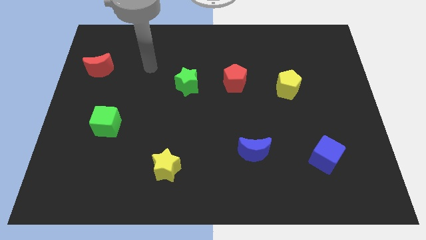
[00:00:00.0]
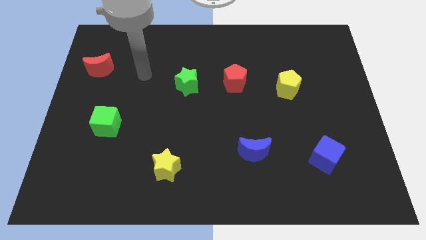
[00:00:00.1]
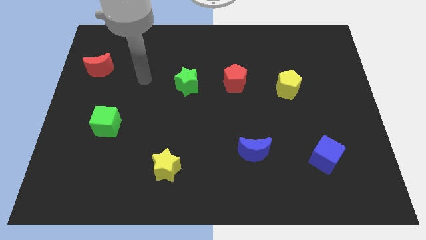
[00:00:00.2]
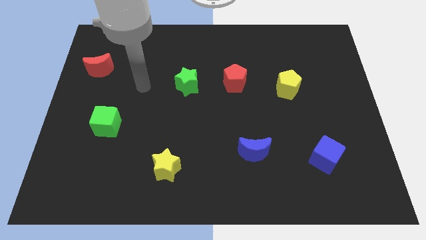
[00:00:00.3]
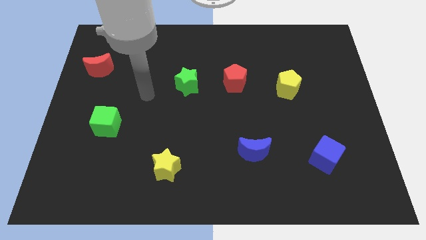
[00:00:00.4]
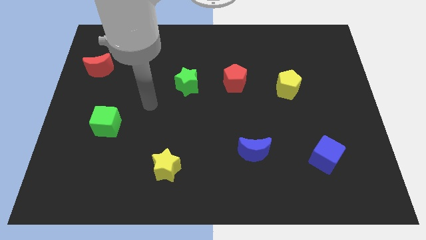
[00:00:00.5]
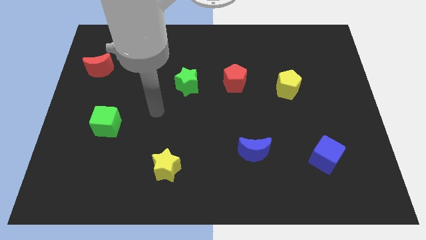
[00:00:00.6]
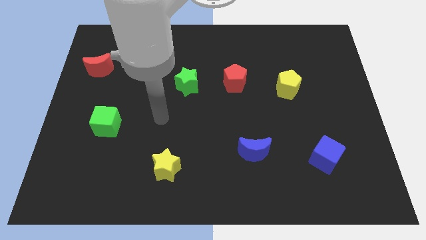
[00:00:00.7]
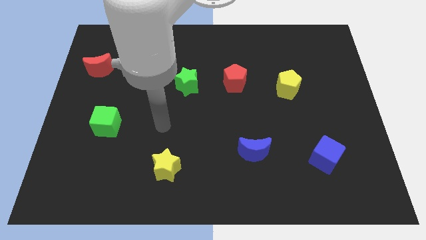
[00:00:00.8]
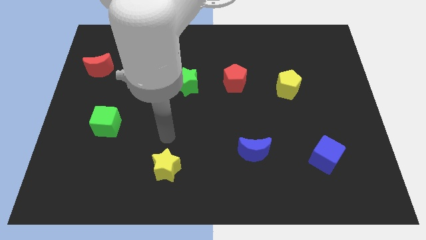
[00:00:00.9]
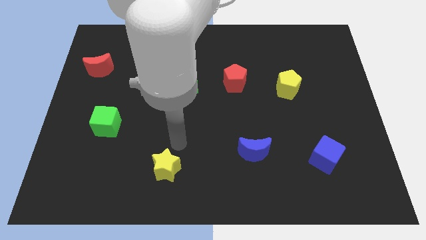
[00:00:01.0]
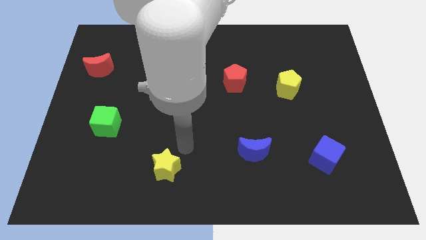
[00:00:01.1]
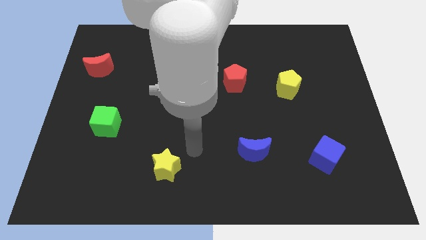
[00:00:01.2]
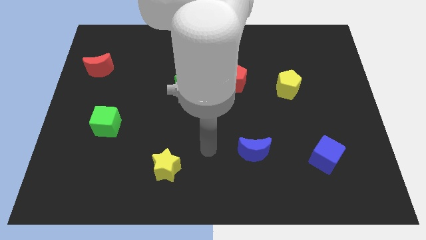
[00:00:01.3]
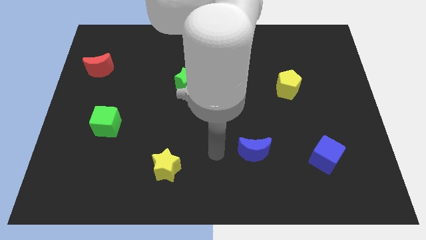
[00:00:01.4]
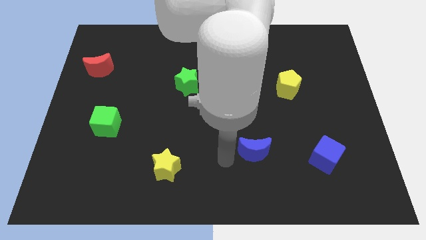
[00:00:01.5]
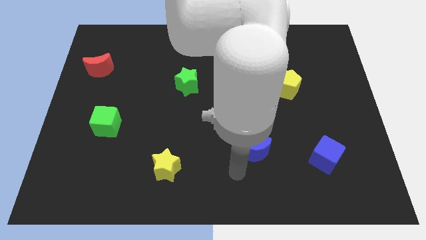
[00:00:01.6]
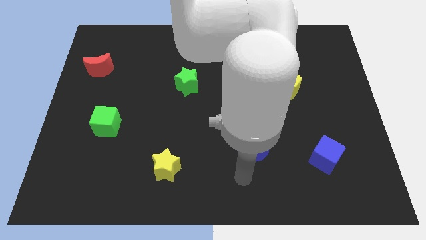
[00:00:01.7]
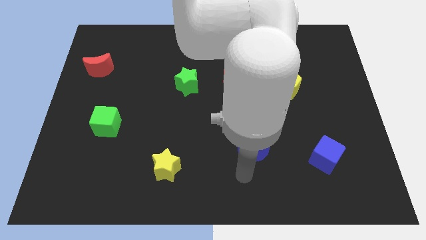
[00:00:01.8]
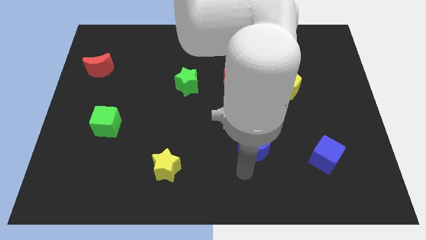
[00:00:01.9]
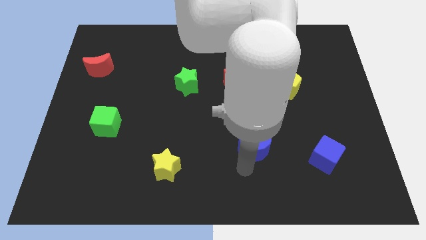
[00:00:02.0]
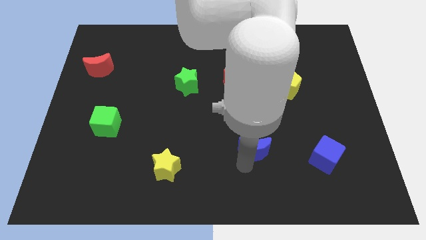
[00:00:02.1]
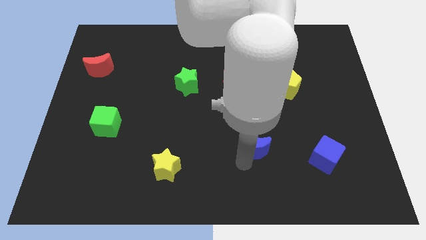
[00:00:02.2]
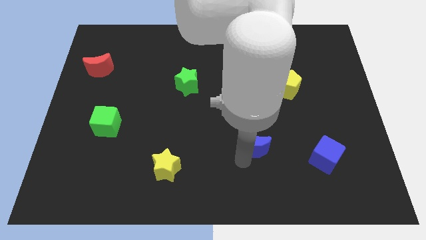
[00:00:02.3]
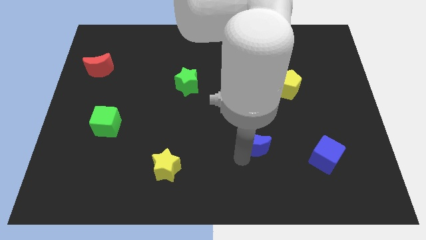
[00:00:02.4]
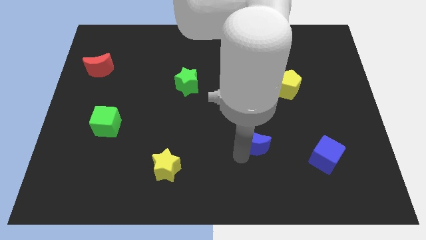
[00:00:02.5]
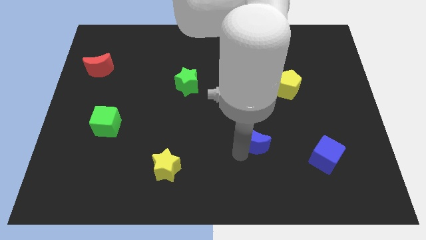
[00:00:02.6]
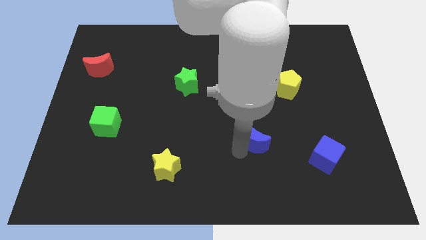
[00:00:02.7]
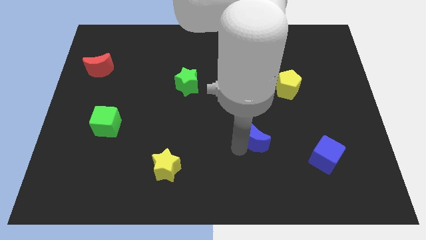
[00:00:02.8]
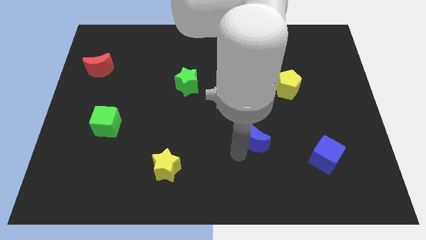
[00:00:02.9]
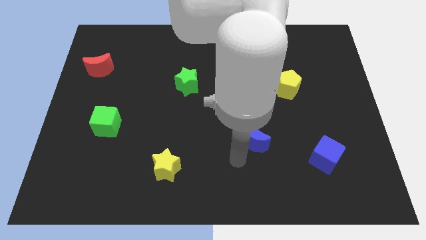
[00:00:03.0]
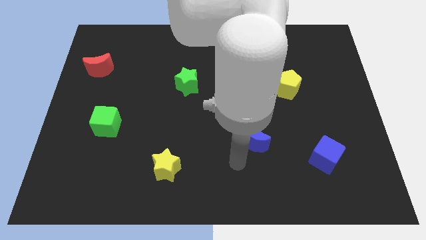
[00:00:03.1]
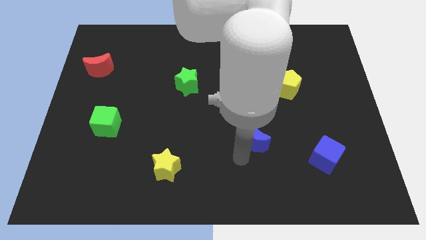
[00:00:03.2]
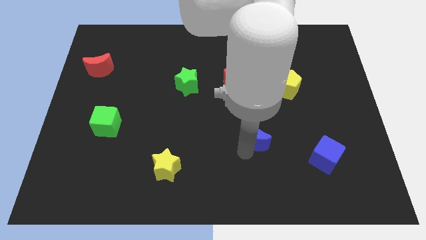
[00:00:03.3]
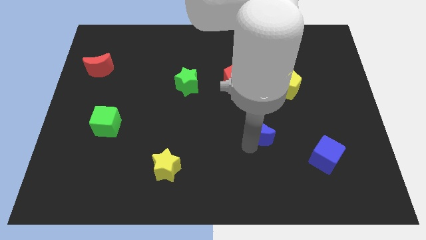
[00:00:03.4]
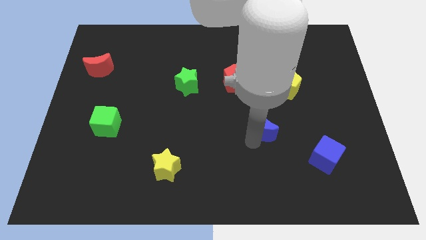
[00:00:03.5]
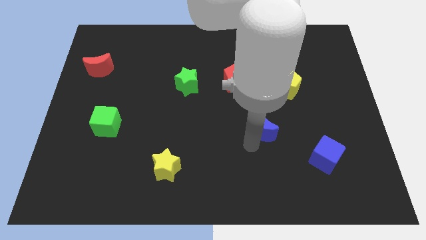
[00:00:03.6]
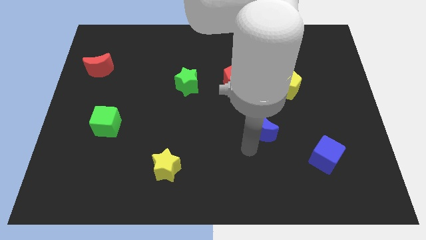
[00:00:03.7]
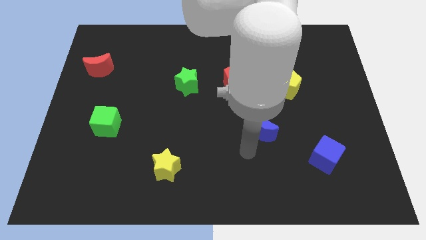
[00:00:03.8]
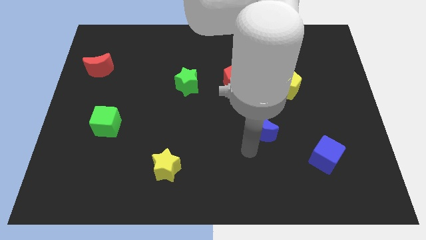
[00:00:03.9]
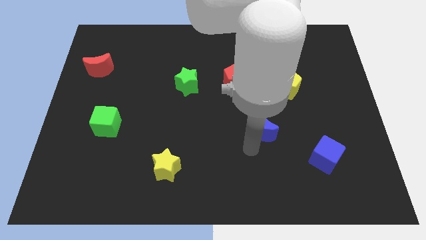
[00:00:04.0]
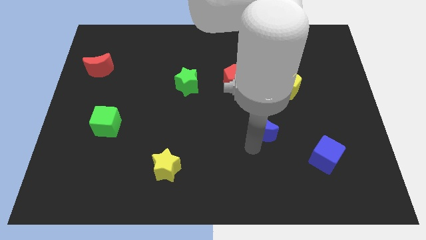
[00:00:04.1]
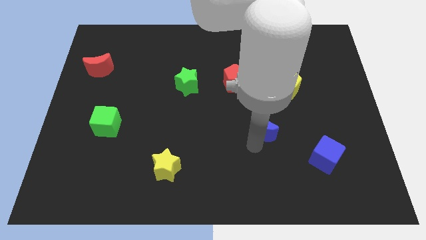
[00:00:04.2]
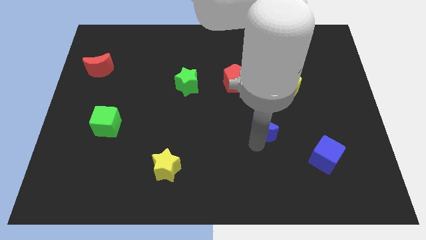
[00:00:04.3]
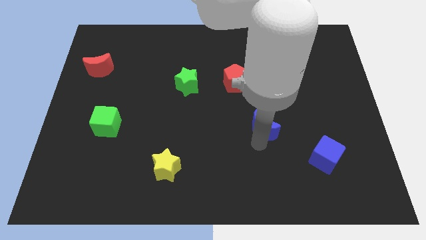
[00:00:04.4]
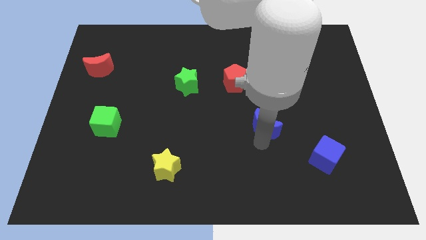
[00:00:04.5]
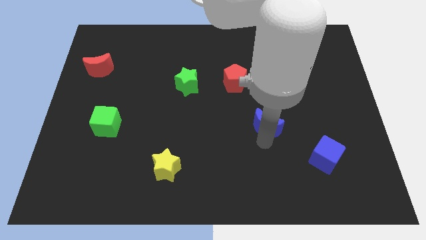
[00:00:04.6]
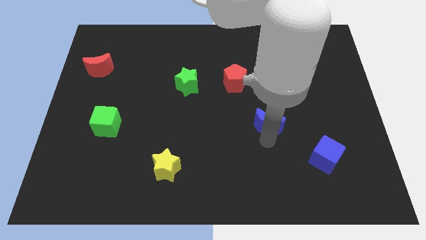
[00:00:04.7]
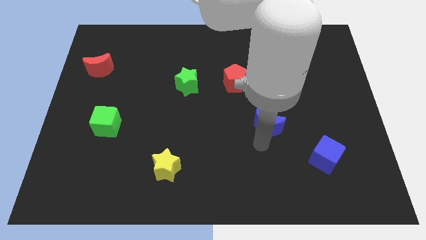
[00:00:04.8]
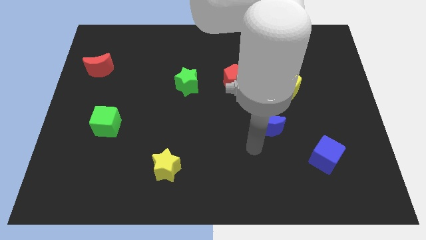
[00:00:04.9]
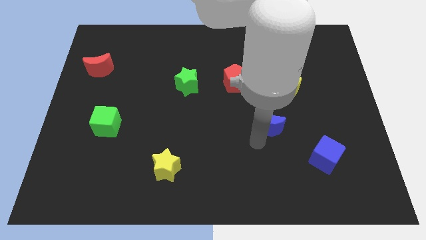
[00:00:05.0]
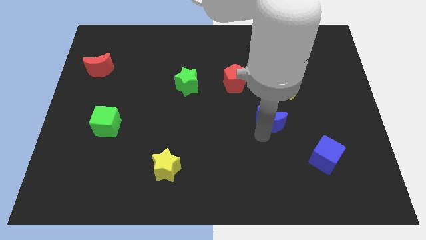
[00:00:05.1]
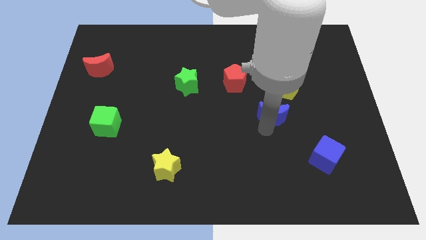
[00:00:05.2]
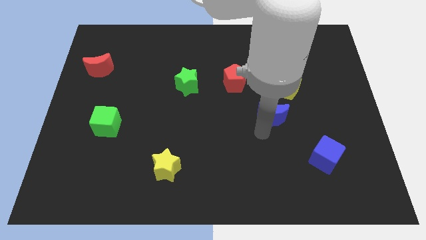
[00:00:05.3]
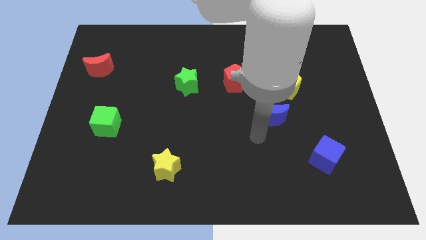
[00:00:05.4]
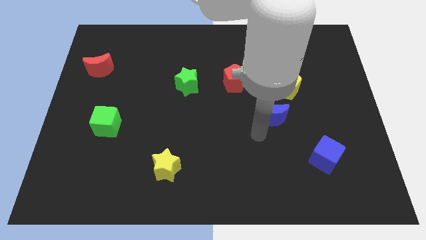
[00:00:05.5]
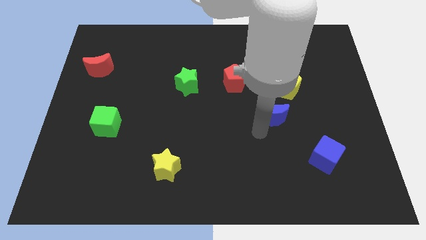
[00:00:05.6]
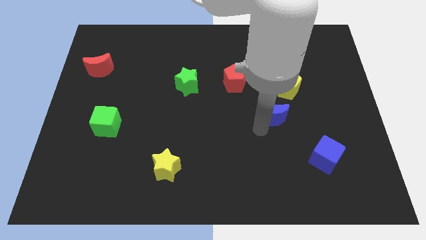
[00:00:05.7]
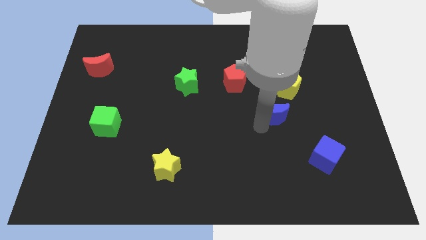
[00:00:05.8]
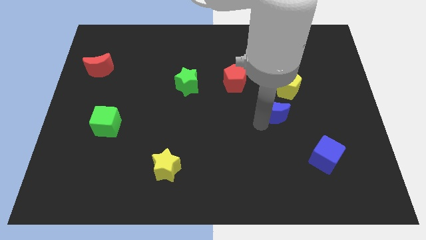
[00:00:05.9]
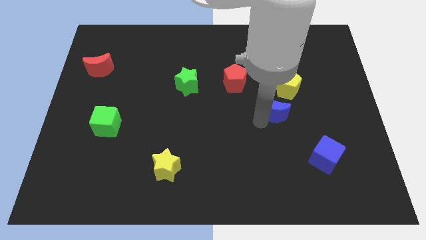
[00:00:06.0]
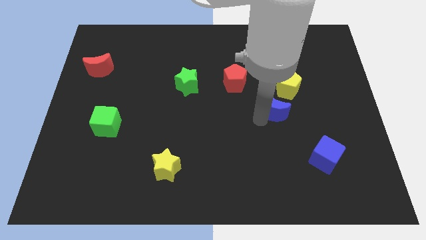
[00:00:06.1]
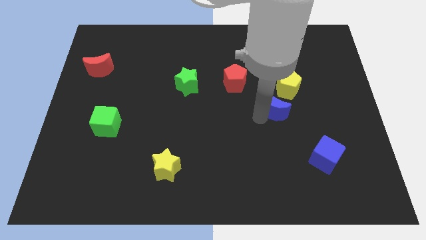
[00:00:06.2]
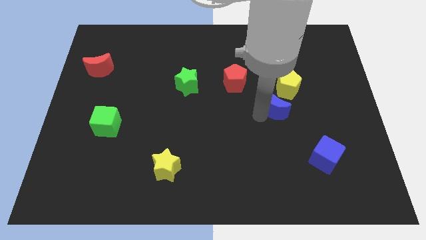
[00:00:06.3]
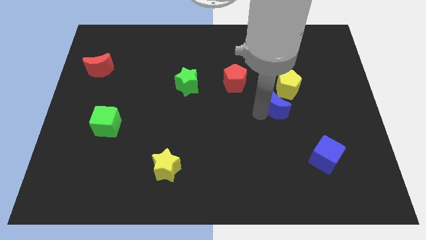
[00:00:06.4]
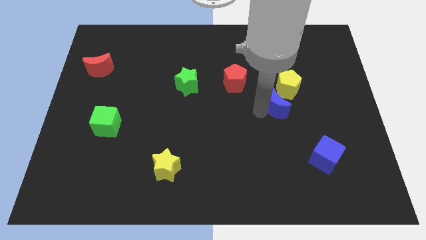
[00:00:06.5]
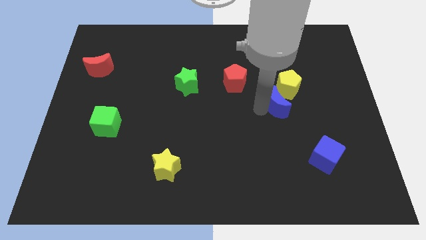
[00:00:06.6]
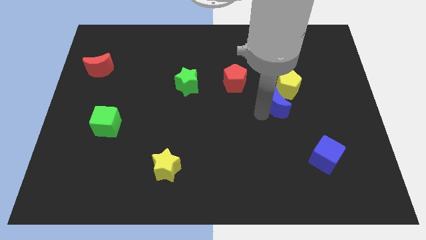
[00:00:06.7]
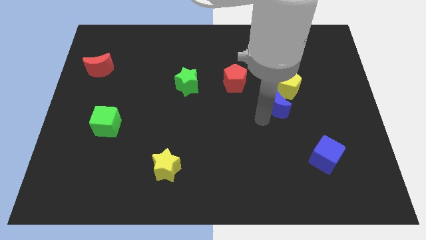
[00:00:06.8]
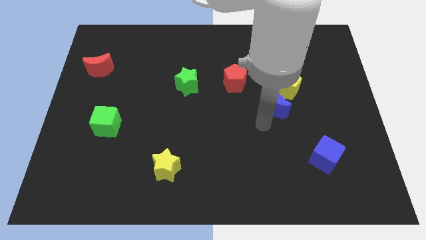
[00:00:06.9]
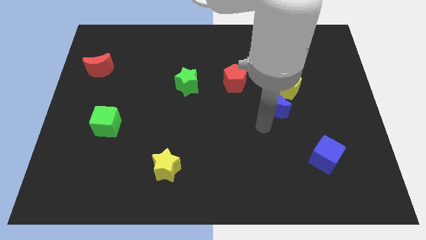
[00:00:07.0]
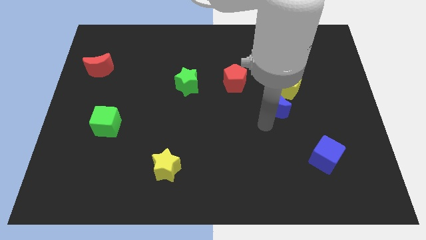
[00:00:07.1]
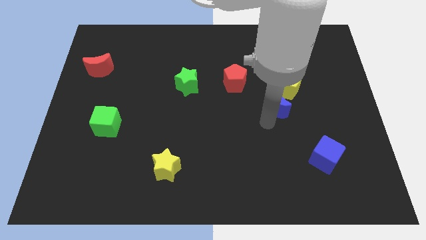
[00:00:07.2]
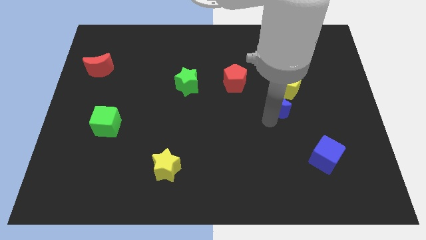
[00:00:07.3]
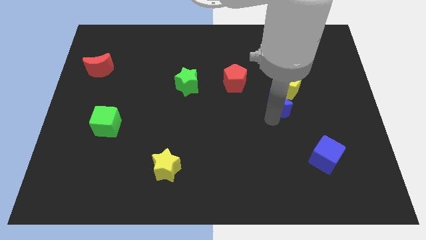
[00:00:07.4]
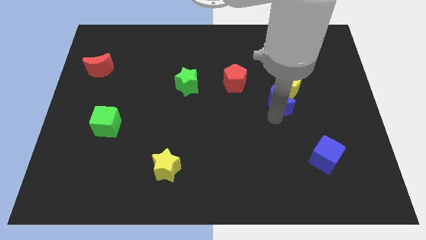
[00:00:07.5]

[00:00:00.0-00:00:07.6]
put the blue moon next to the yellow pentagon
